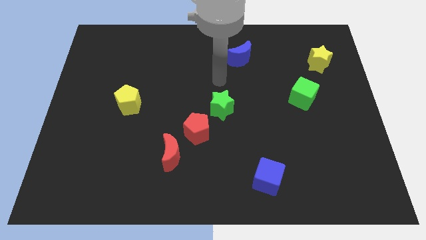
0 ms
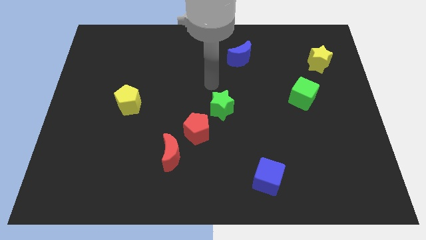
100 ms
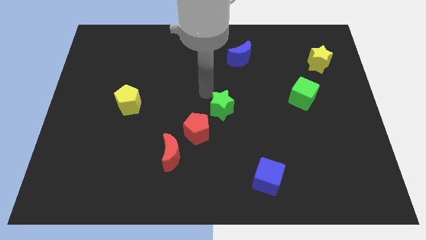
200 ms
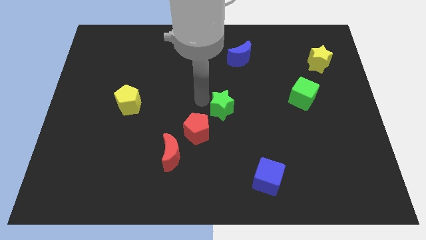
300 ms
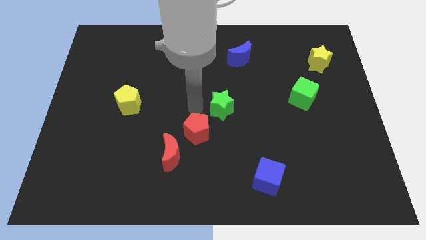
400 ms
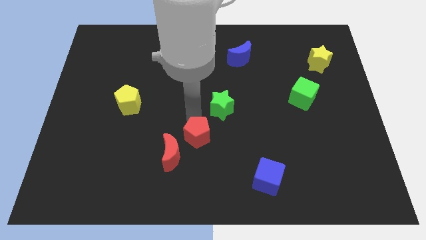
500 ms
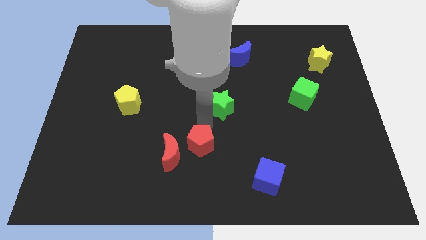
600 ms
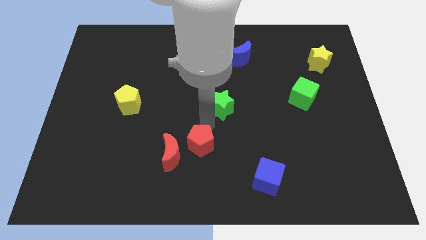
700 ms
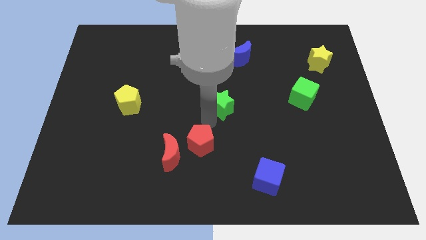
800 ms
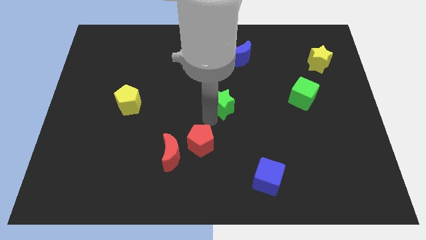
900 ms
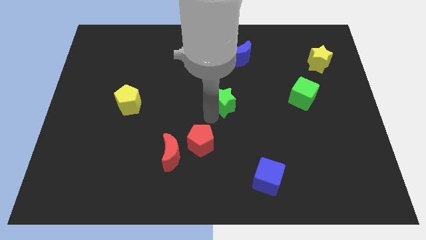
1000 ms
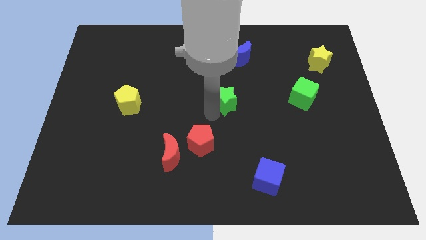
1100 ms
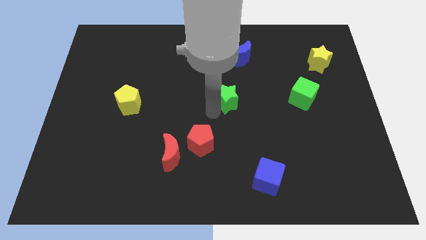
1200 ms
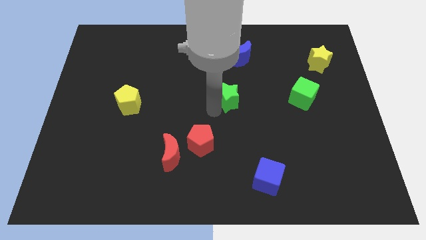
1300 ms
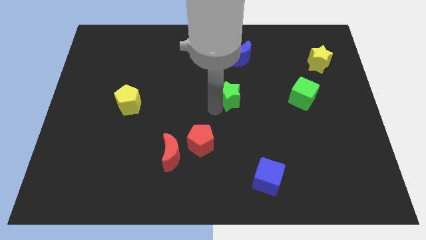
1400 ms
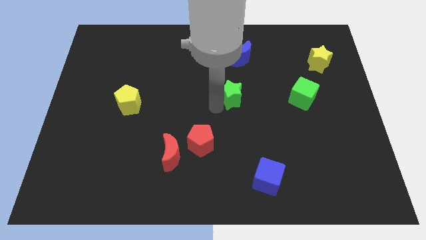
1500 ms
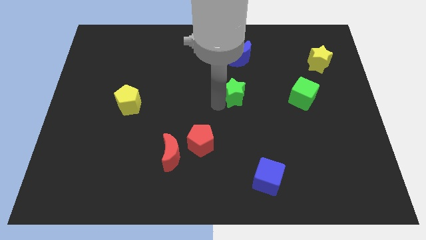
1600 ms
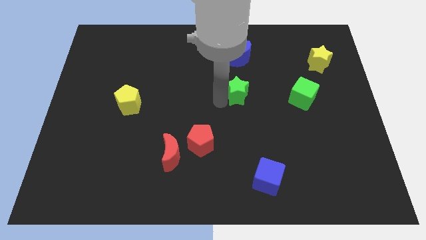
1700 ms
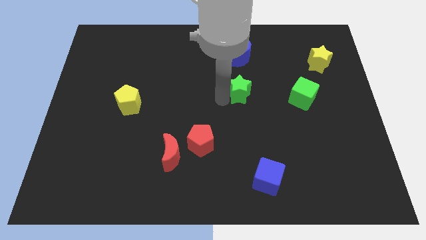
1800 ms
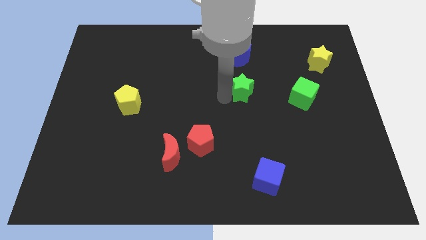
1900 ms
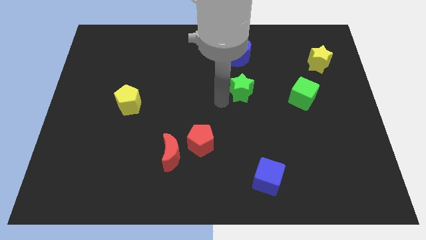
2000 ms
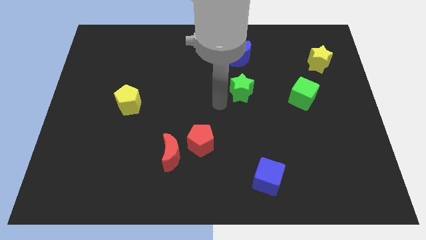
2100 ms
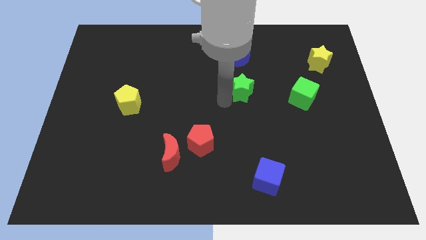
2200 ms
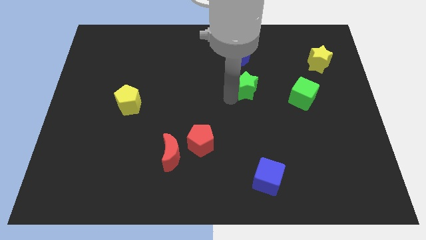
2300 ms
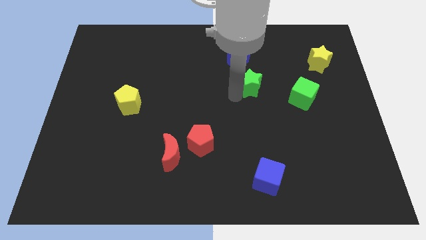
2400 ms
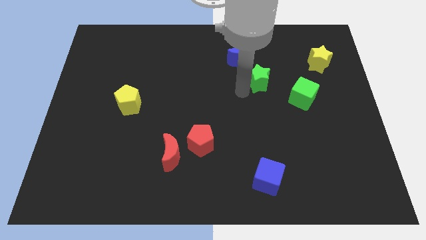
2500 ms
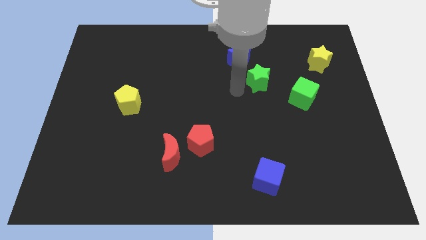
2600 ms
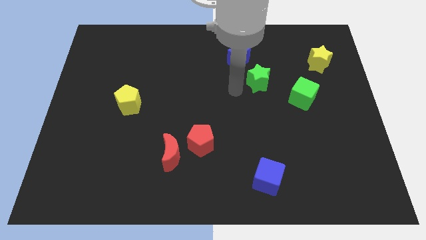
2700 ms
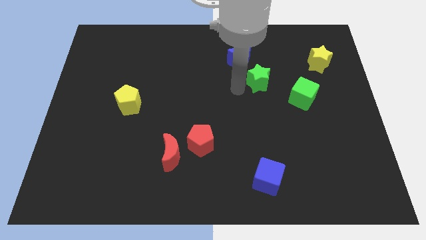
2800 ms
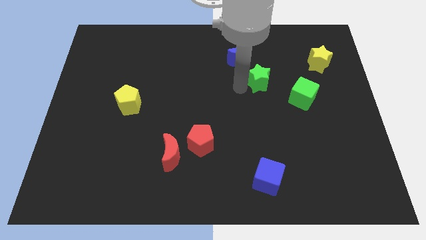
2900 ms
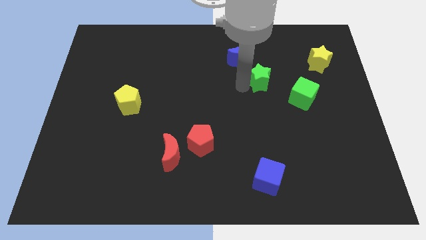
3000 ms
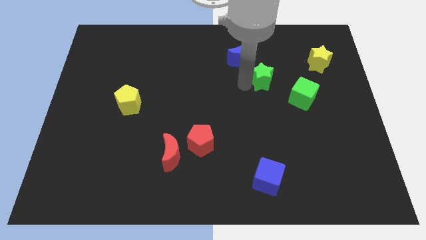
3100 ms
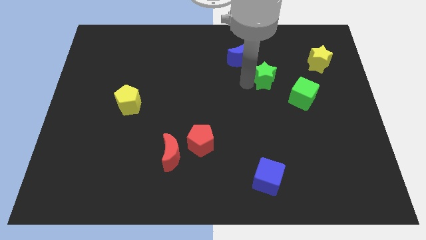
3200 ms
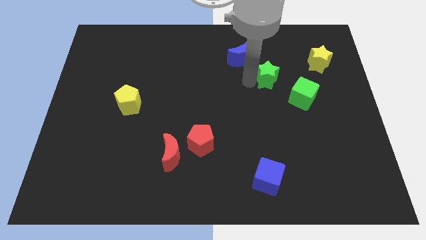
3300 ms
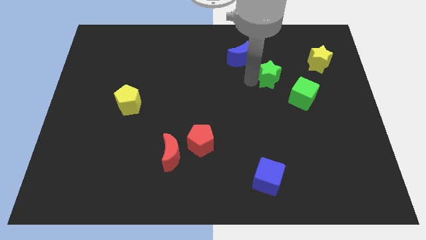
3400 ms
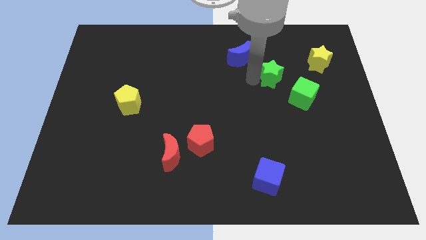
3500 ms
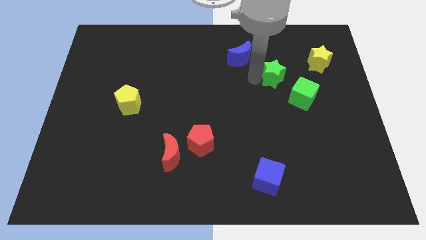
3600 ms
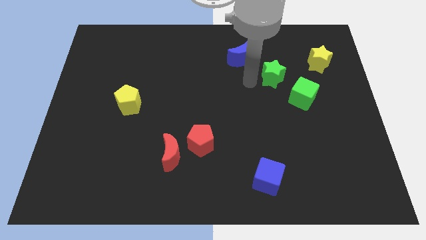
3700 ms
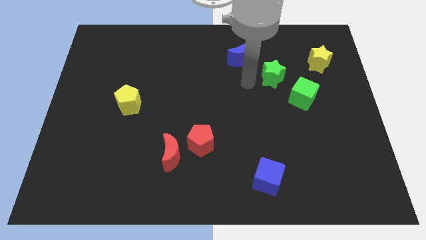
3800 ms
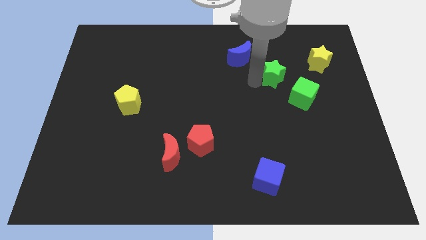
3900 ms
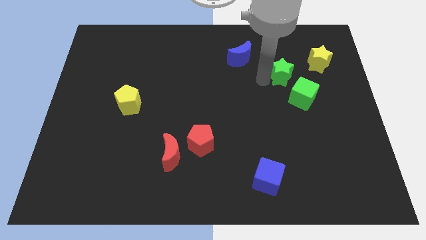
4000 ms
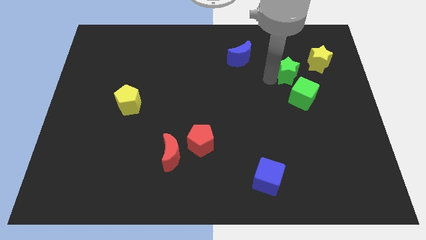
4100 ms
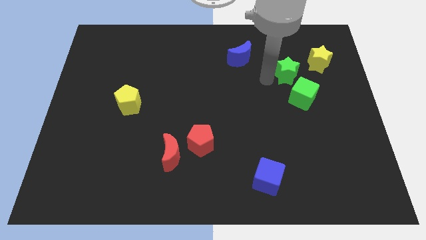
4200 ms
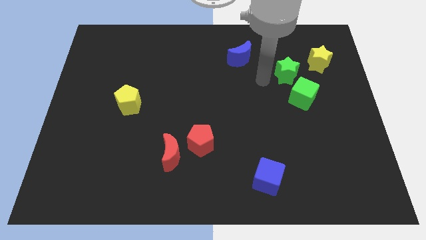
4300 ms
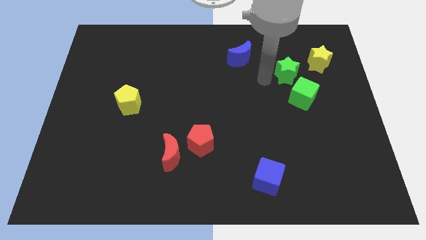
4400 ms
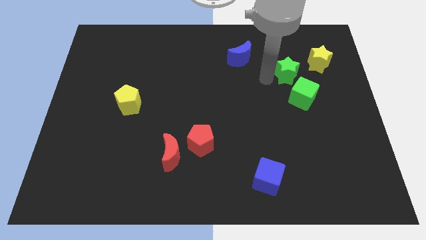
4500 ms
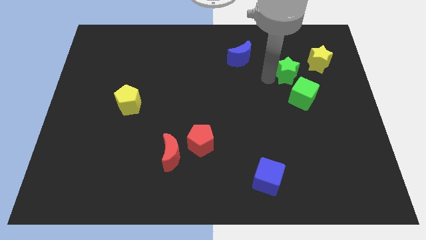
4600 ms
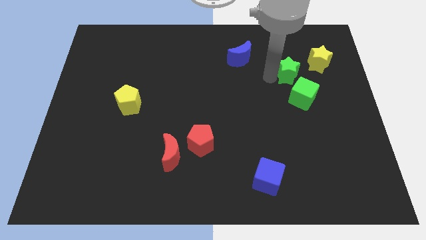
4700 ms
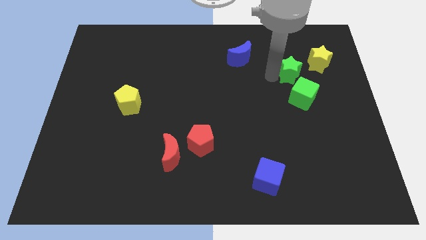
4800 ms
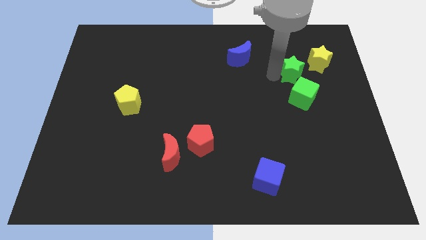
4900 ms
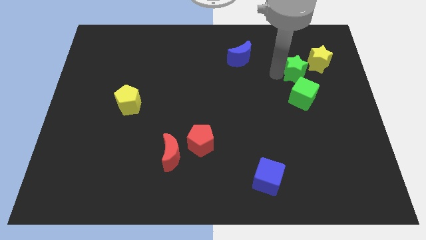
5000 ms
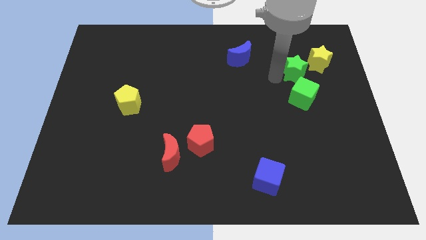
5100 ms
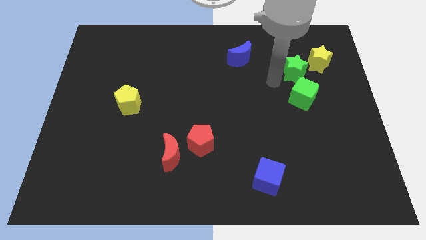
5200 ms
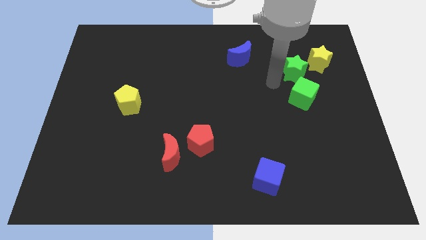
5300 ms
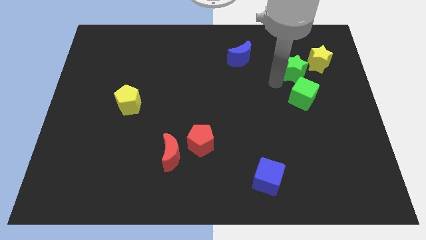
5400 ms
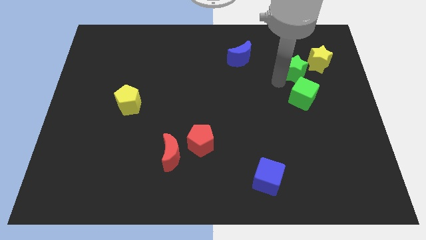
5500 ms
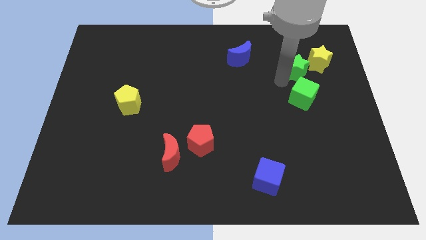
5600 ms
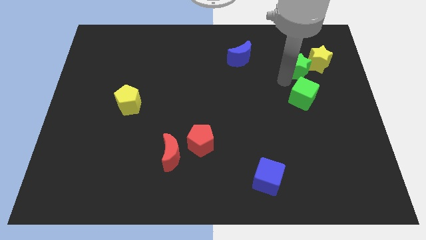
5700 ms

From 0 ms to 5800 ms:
move the green star towards the yellow star

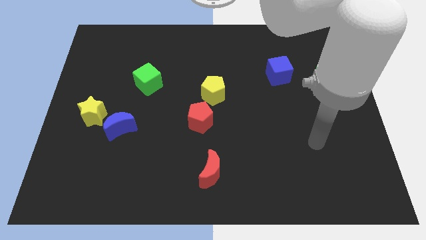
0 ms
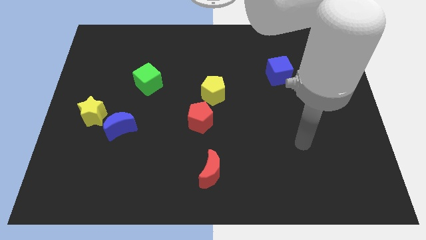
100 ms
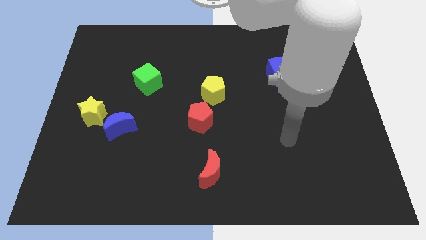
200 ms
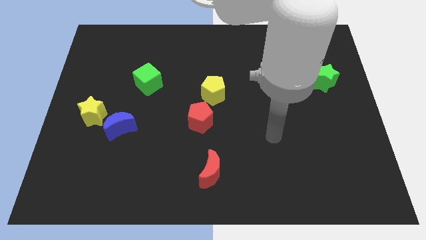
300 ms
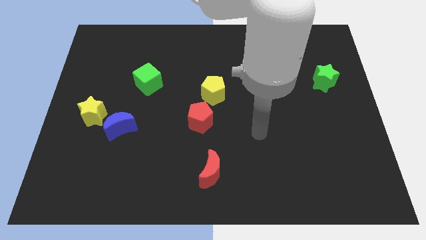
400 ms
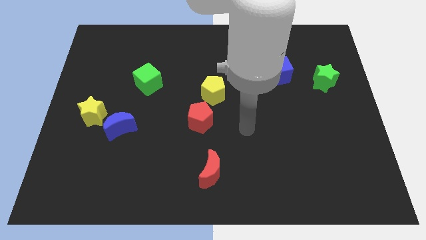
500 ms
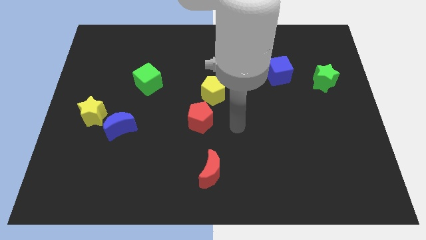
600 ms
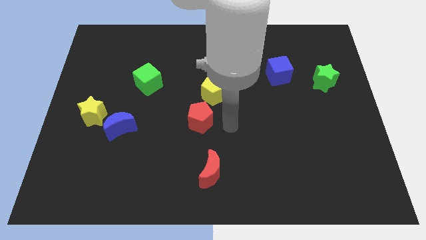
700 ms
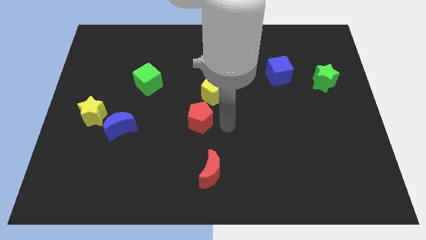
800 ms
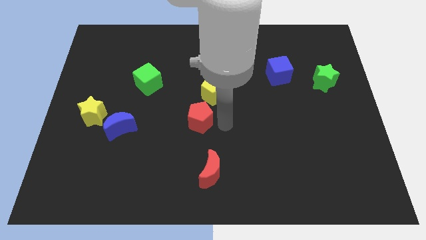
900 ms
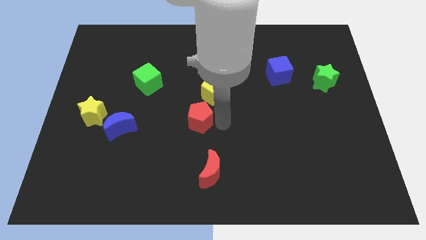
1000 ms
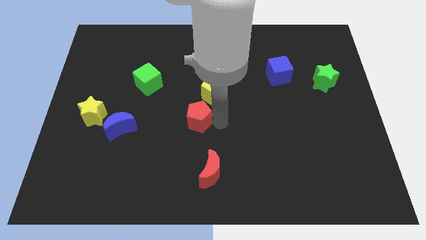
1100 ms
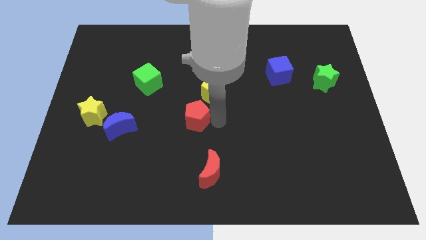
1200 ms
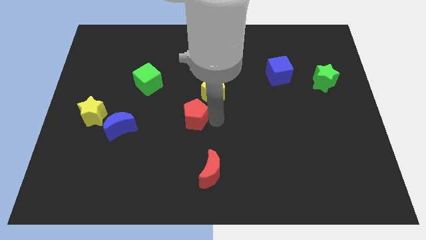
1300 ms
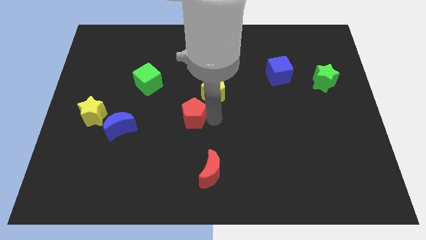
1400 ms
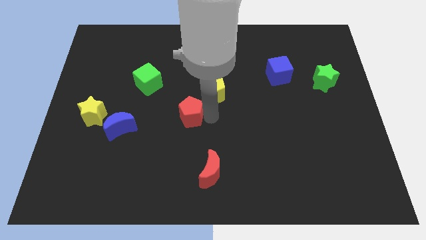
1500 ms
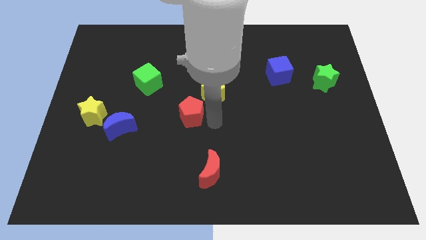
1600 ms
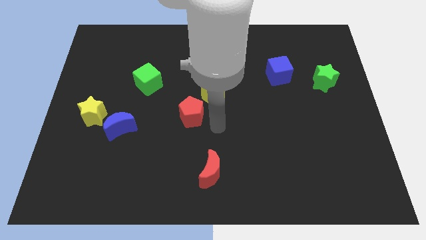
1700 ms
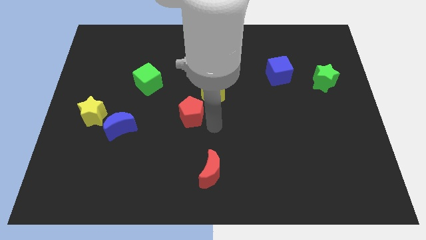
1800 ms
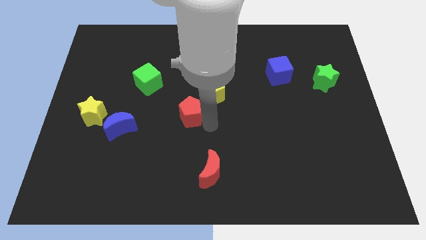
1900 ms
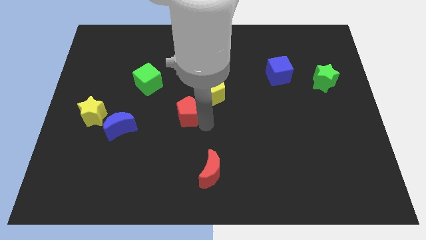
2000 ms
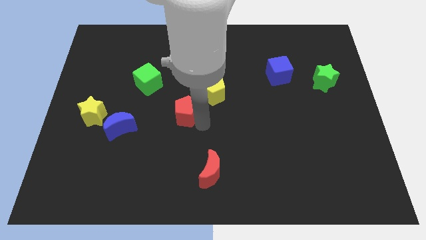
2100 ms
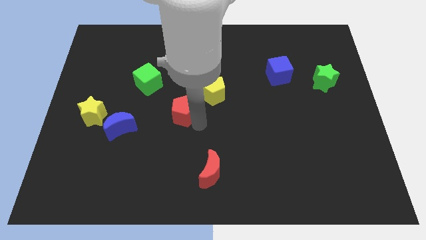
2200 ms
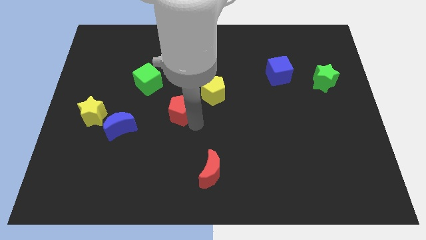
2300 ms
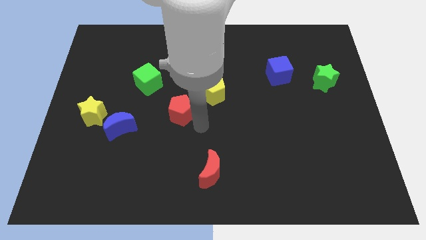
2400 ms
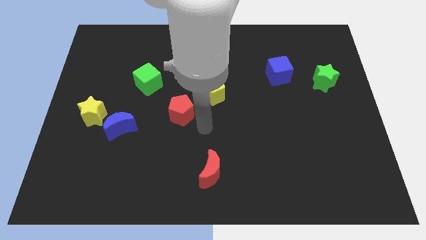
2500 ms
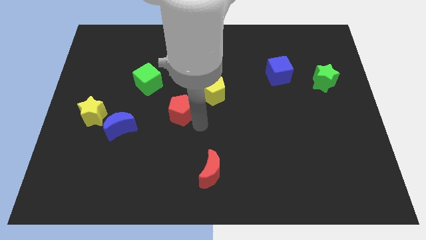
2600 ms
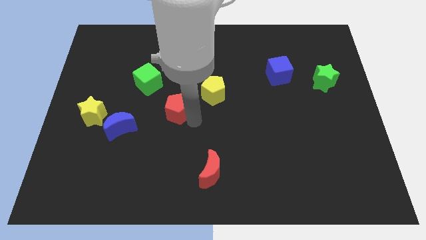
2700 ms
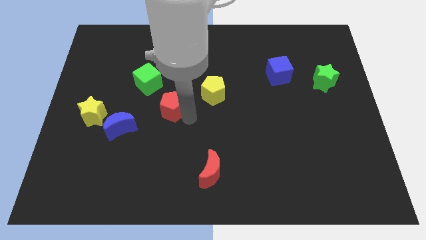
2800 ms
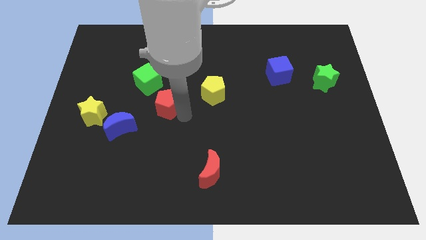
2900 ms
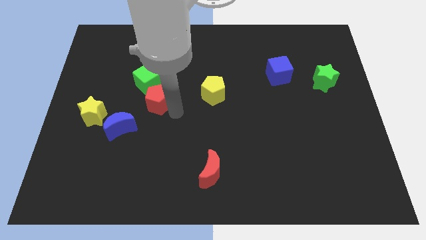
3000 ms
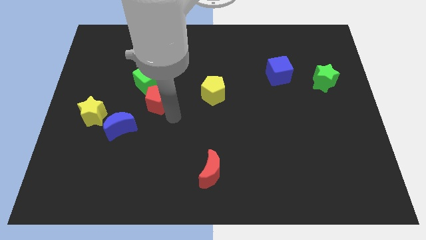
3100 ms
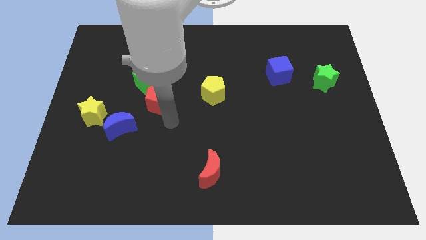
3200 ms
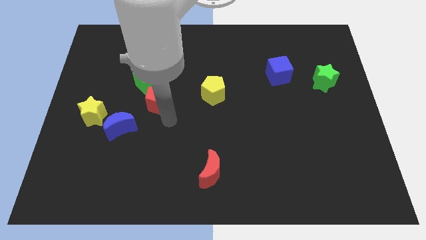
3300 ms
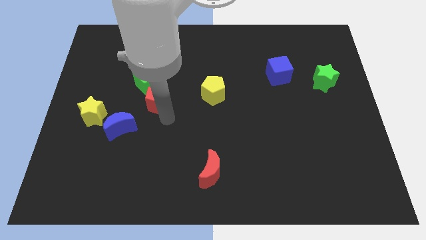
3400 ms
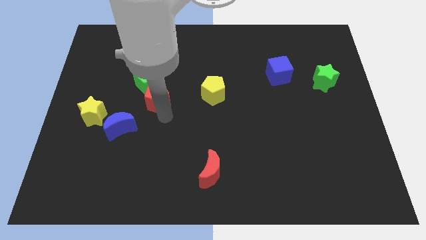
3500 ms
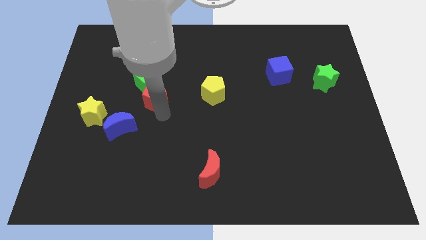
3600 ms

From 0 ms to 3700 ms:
slide the red pentagon next to the green cube
